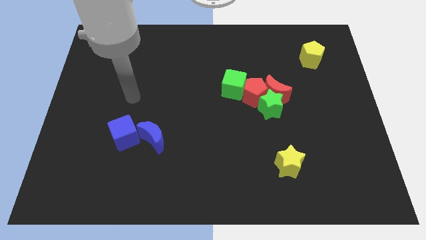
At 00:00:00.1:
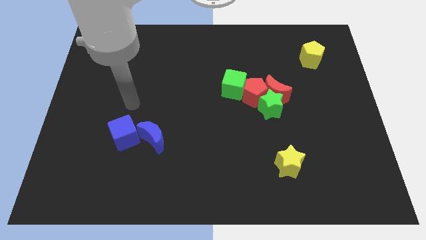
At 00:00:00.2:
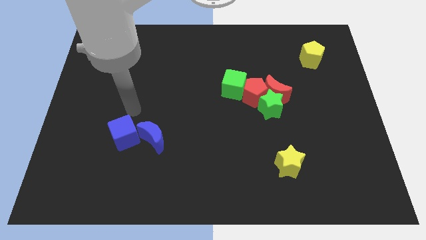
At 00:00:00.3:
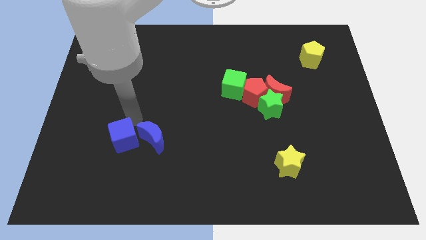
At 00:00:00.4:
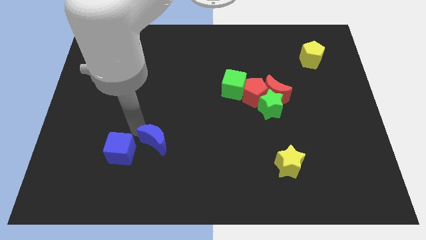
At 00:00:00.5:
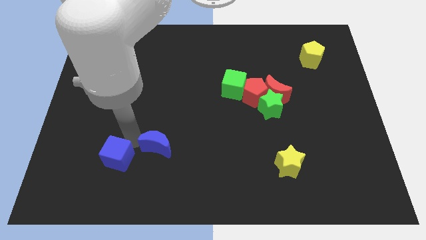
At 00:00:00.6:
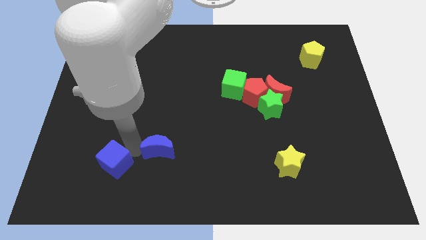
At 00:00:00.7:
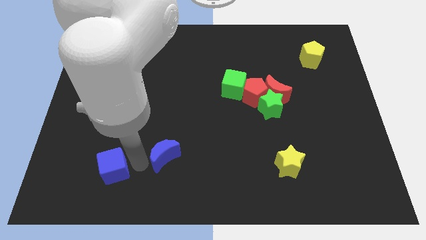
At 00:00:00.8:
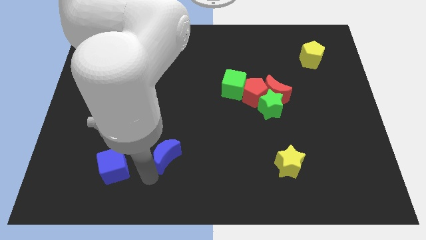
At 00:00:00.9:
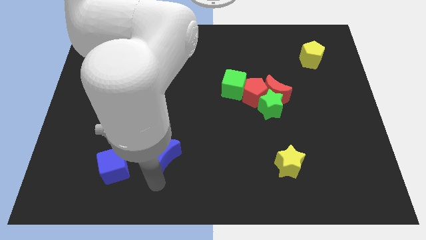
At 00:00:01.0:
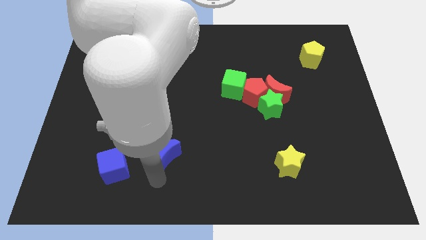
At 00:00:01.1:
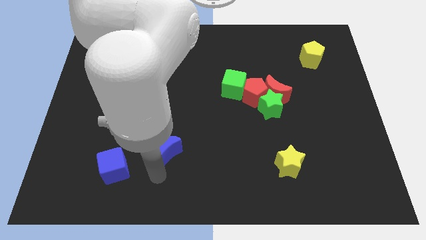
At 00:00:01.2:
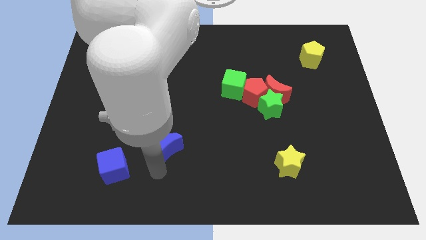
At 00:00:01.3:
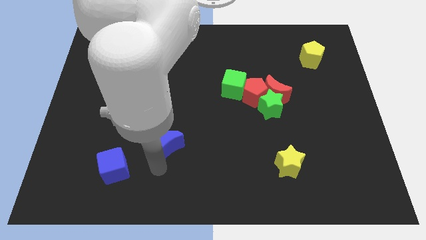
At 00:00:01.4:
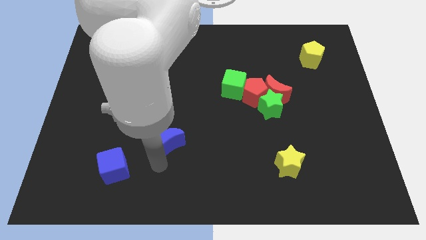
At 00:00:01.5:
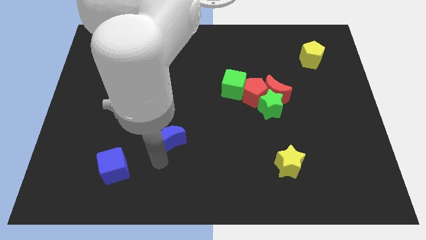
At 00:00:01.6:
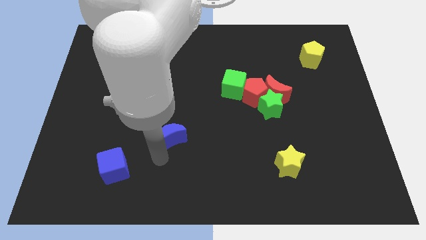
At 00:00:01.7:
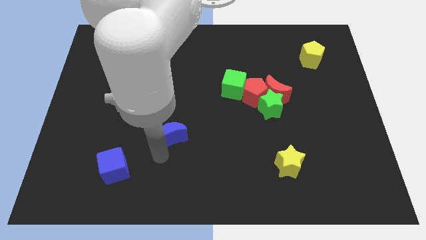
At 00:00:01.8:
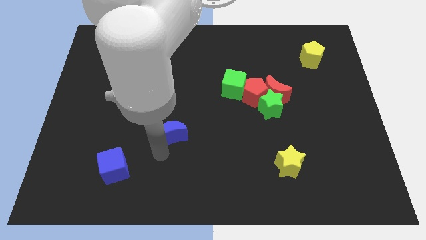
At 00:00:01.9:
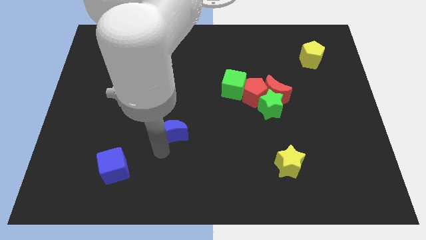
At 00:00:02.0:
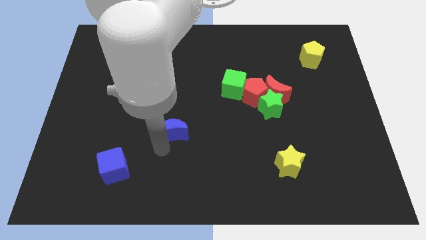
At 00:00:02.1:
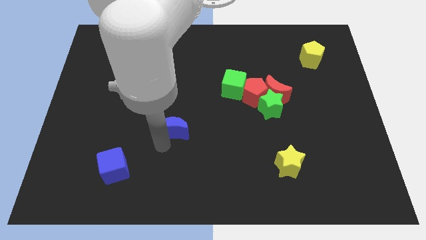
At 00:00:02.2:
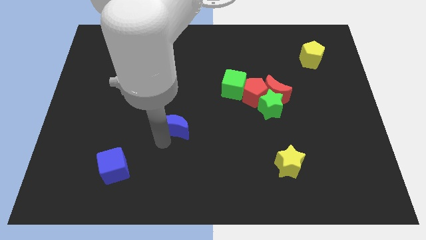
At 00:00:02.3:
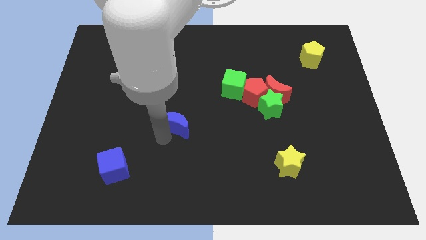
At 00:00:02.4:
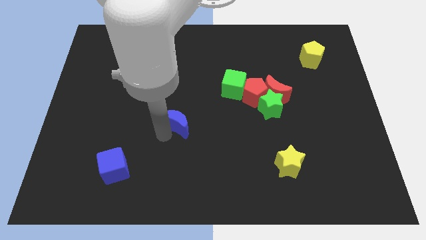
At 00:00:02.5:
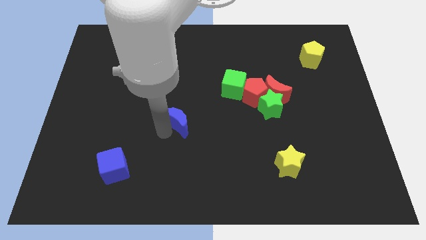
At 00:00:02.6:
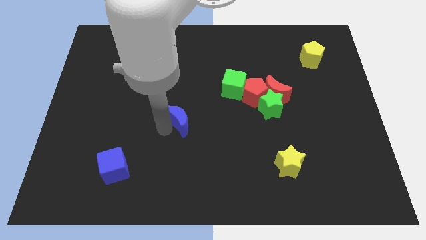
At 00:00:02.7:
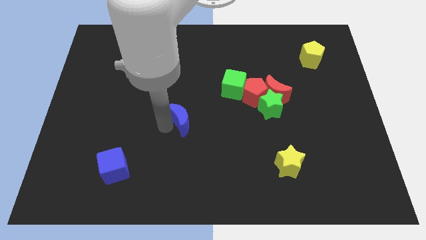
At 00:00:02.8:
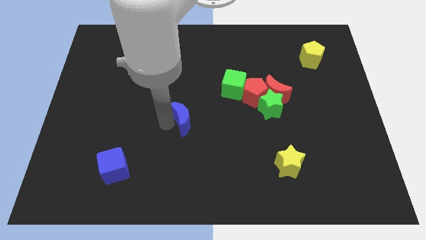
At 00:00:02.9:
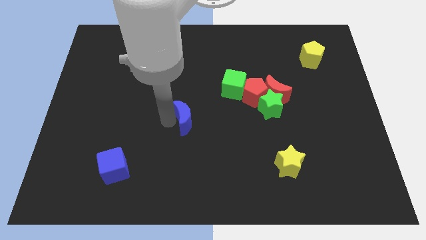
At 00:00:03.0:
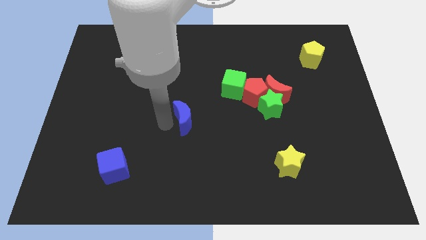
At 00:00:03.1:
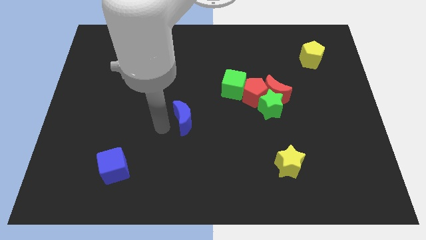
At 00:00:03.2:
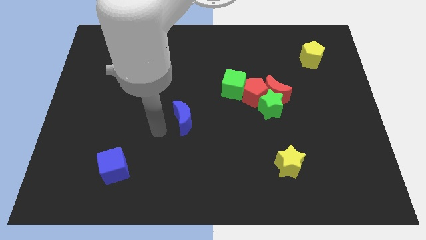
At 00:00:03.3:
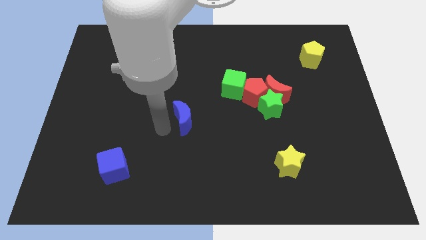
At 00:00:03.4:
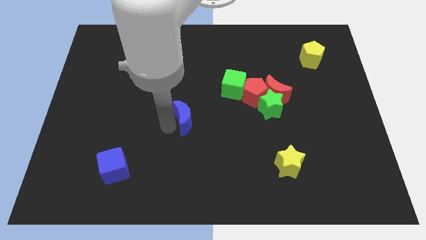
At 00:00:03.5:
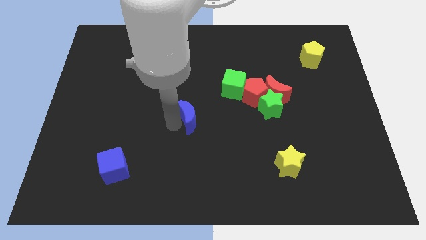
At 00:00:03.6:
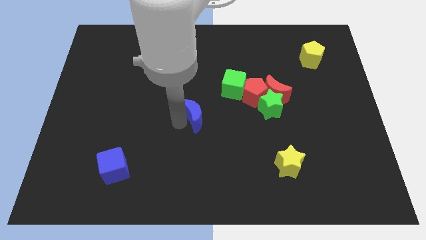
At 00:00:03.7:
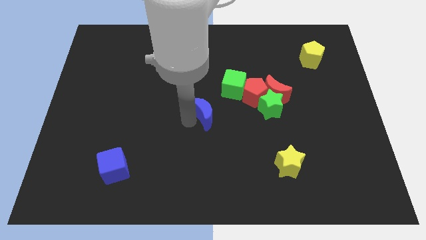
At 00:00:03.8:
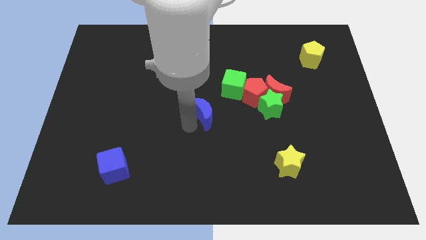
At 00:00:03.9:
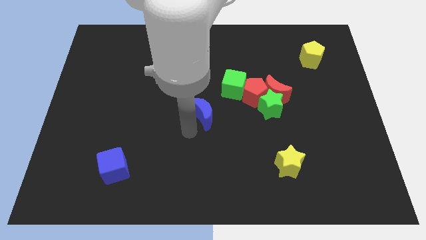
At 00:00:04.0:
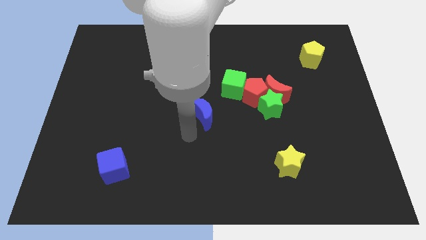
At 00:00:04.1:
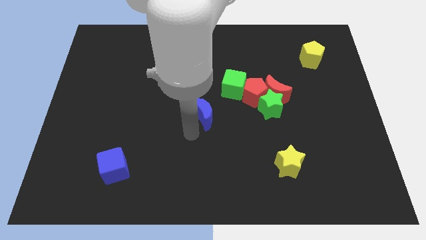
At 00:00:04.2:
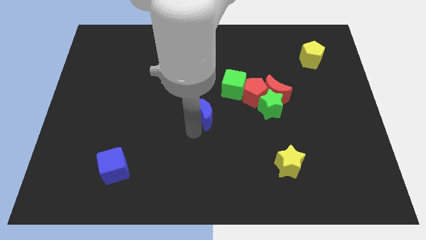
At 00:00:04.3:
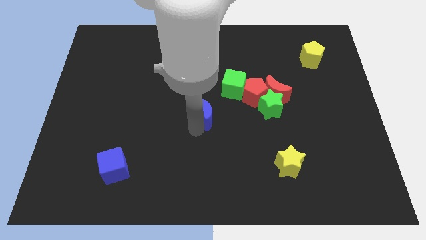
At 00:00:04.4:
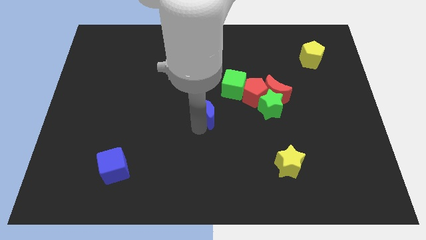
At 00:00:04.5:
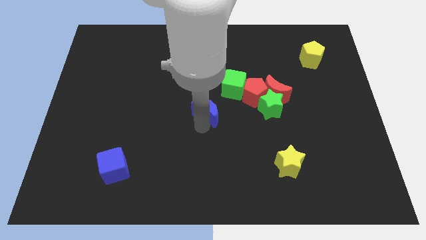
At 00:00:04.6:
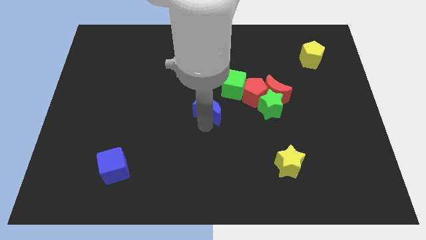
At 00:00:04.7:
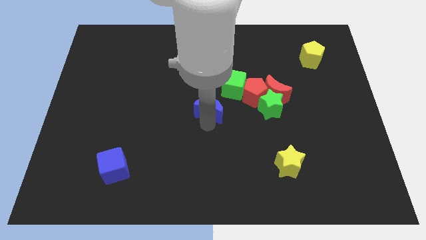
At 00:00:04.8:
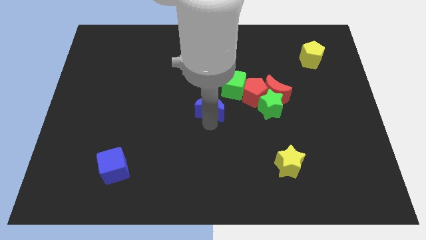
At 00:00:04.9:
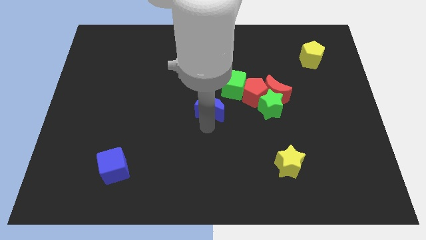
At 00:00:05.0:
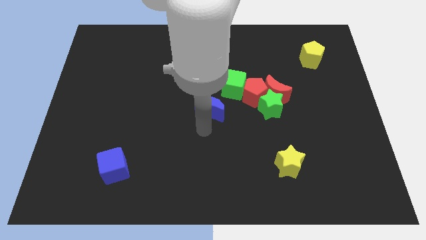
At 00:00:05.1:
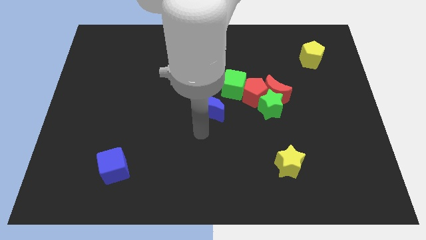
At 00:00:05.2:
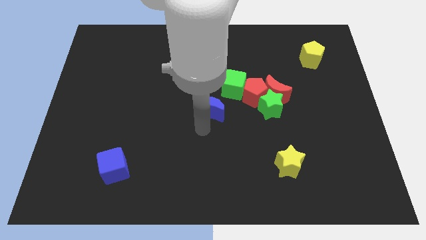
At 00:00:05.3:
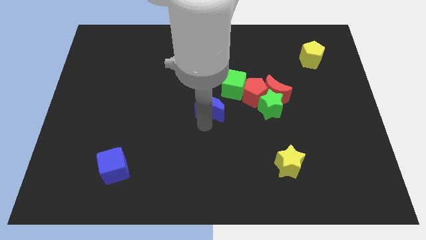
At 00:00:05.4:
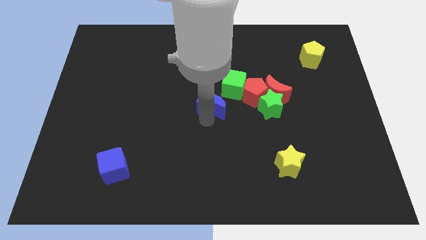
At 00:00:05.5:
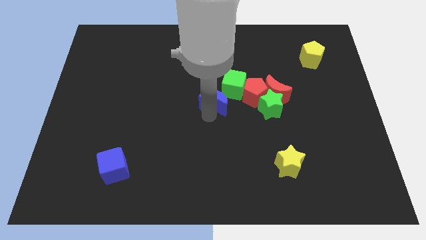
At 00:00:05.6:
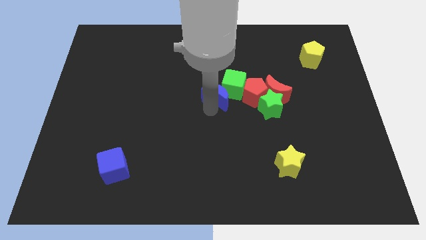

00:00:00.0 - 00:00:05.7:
slide the blue moon close to the green cube
